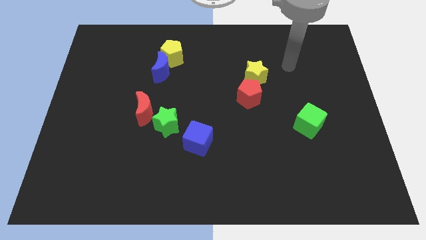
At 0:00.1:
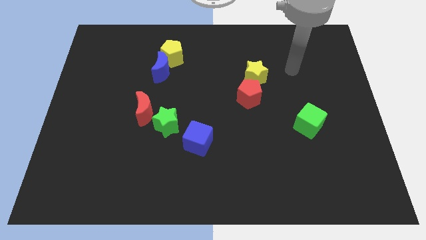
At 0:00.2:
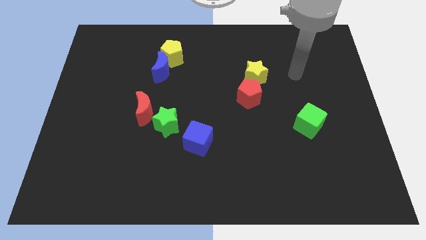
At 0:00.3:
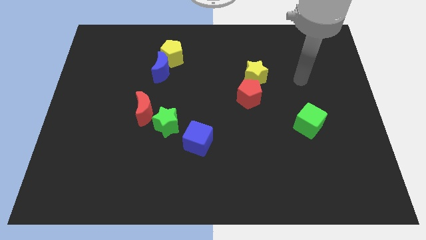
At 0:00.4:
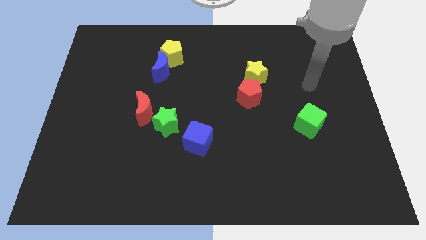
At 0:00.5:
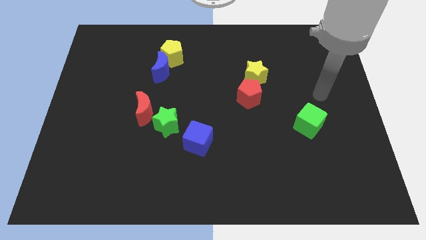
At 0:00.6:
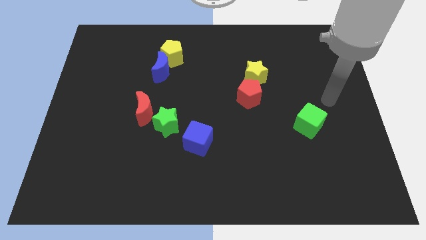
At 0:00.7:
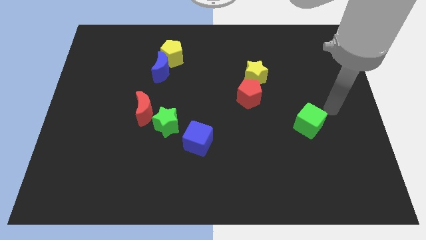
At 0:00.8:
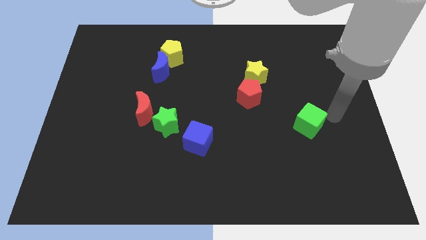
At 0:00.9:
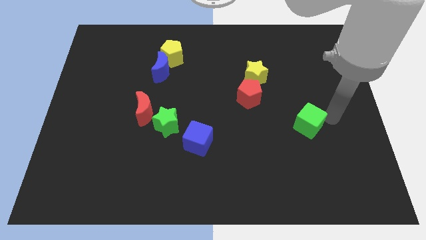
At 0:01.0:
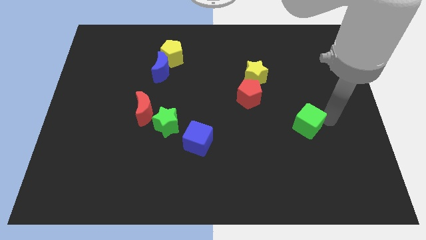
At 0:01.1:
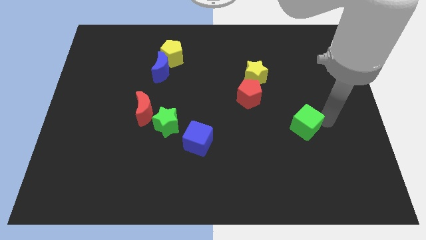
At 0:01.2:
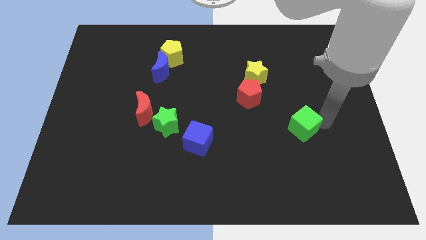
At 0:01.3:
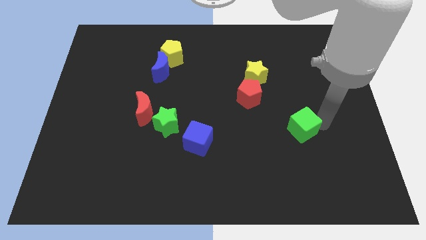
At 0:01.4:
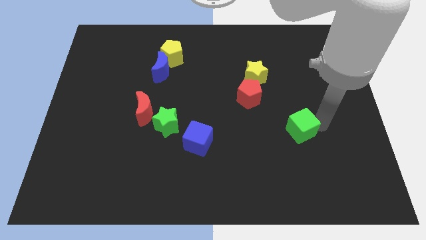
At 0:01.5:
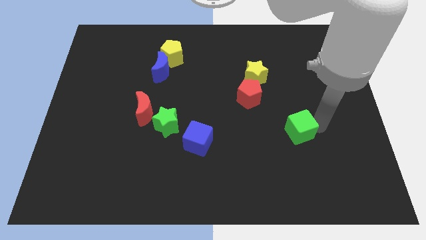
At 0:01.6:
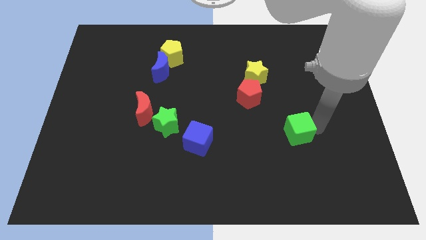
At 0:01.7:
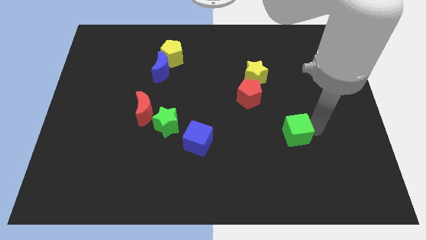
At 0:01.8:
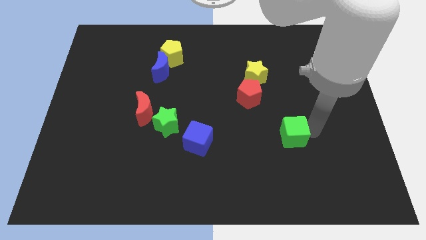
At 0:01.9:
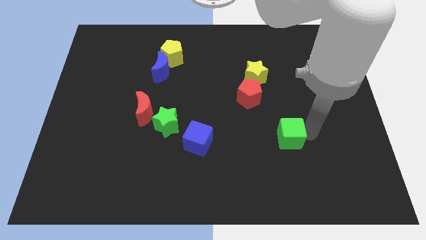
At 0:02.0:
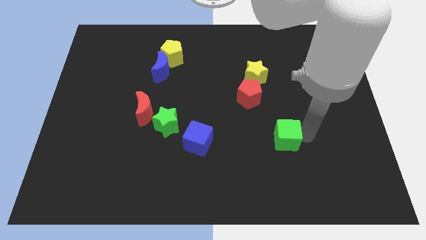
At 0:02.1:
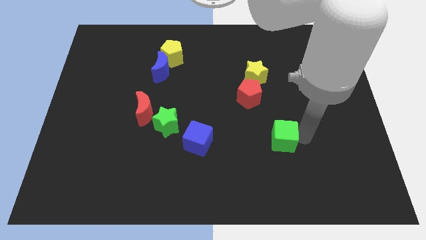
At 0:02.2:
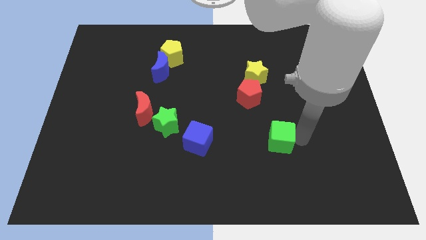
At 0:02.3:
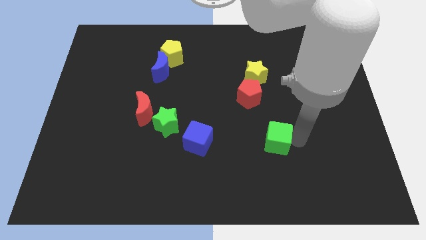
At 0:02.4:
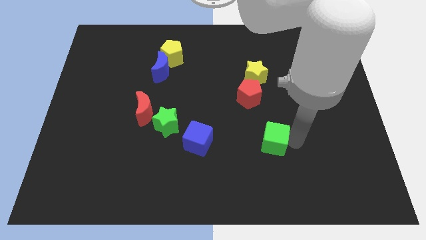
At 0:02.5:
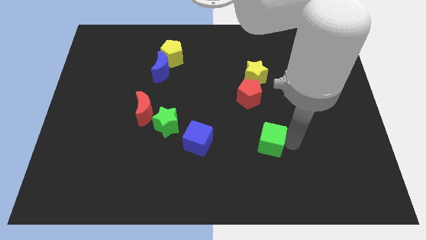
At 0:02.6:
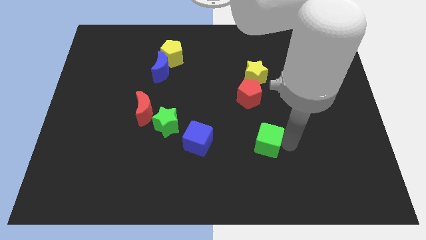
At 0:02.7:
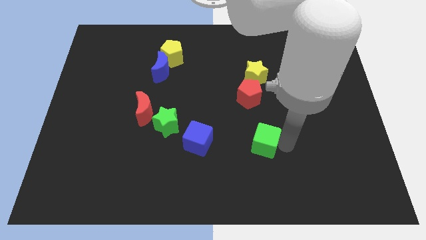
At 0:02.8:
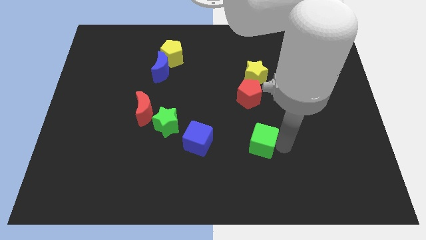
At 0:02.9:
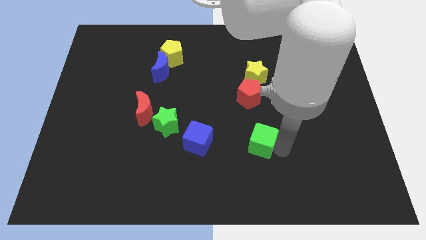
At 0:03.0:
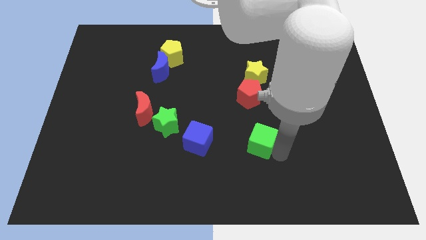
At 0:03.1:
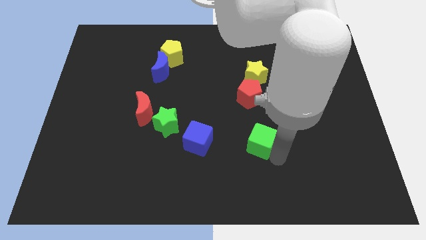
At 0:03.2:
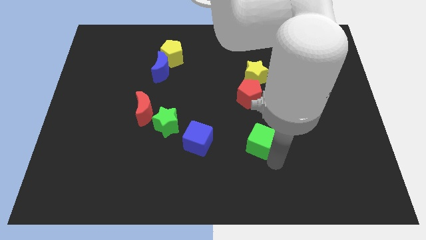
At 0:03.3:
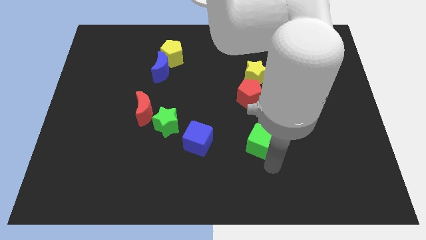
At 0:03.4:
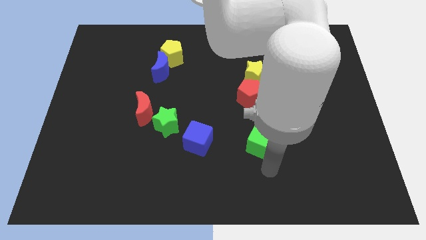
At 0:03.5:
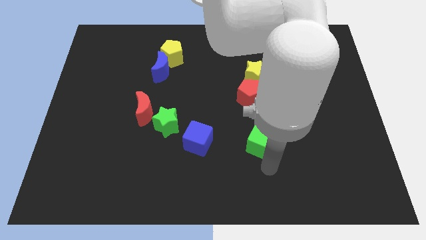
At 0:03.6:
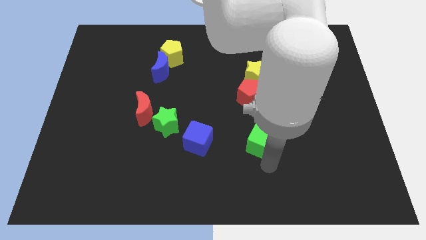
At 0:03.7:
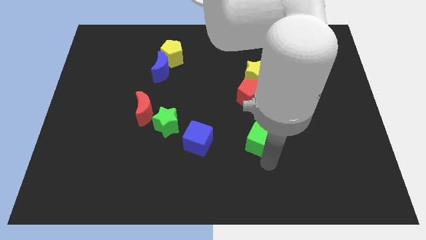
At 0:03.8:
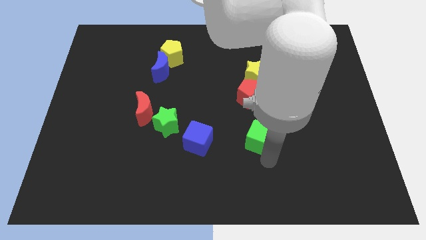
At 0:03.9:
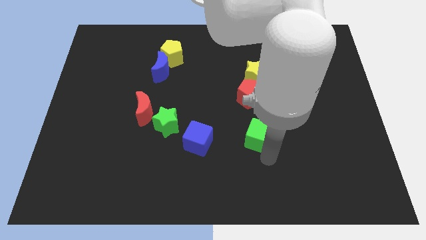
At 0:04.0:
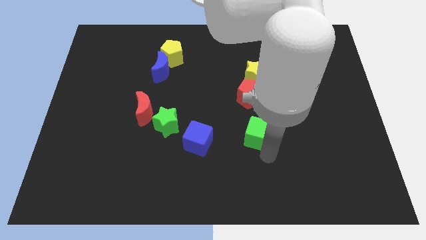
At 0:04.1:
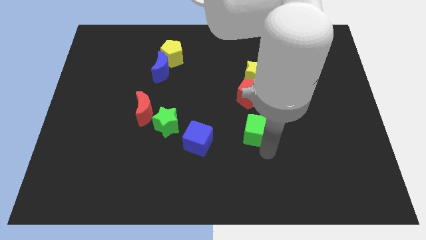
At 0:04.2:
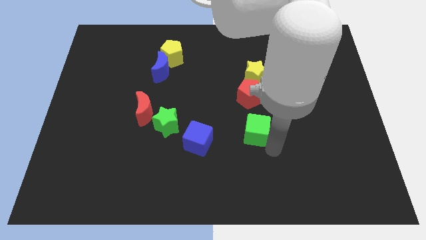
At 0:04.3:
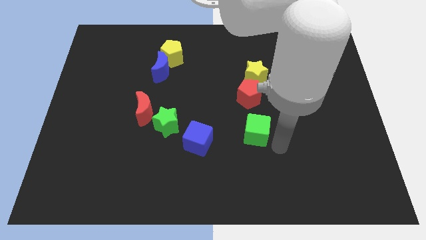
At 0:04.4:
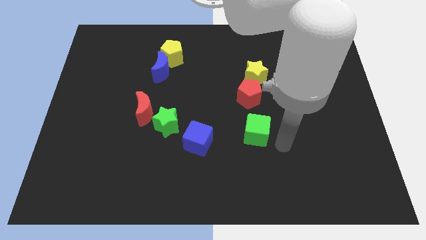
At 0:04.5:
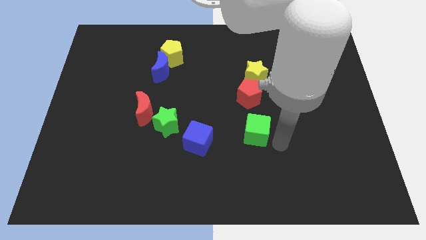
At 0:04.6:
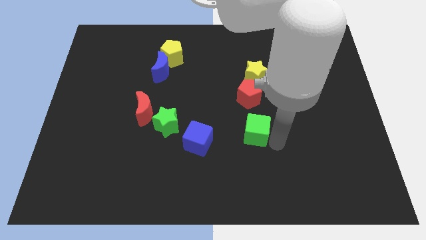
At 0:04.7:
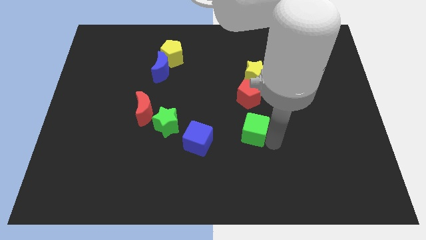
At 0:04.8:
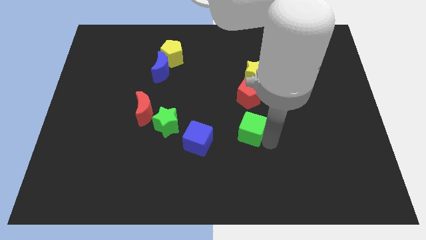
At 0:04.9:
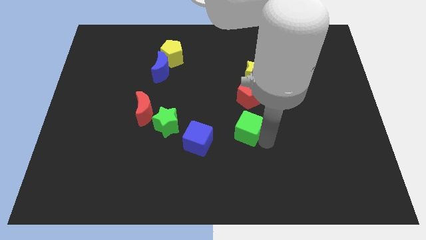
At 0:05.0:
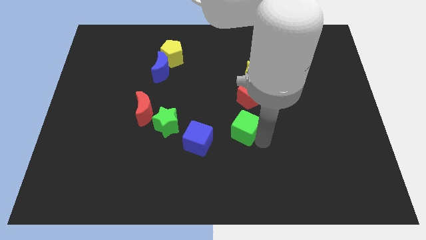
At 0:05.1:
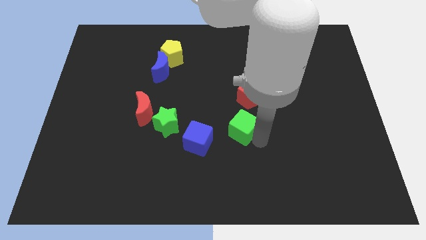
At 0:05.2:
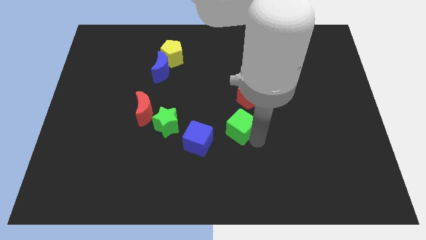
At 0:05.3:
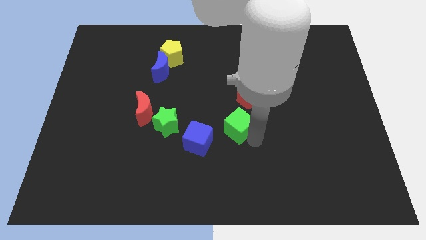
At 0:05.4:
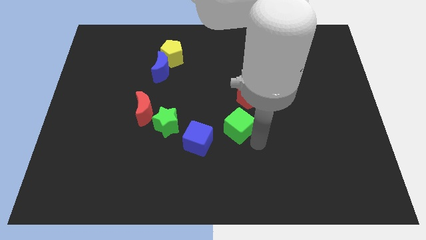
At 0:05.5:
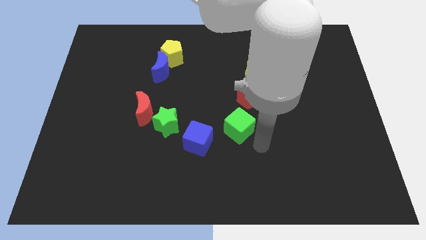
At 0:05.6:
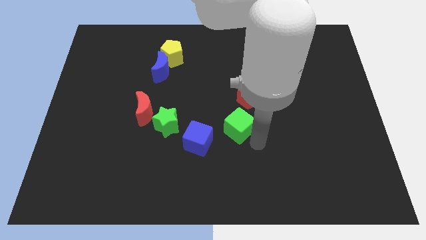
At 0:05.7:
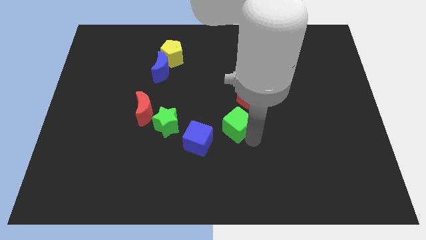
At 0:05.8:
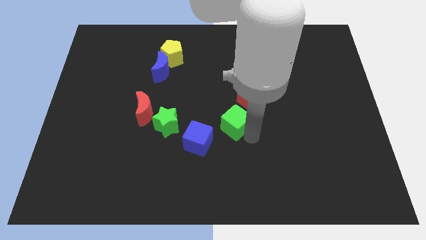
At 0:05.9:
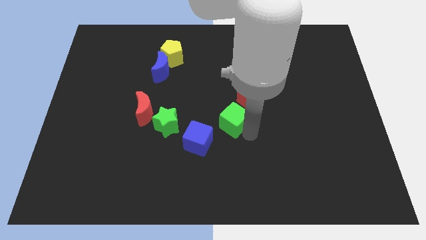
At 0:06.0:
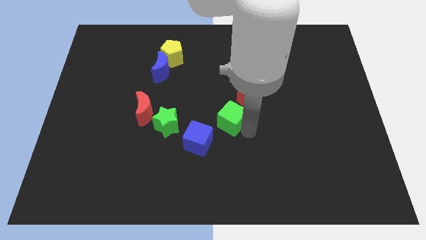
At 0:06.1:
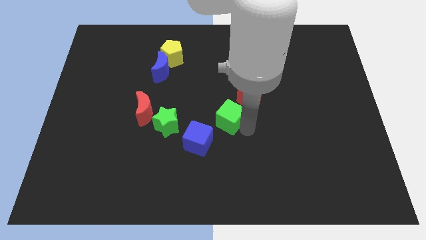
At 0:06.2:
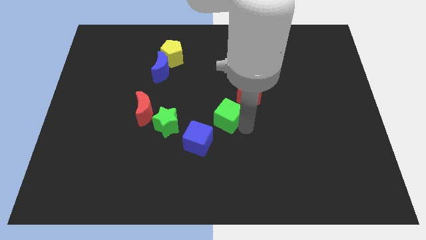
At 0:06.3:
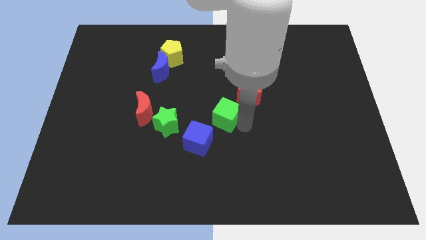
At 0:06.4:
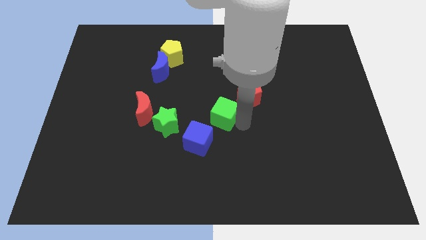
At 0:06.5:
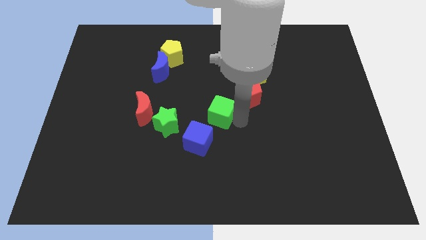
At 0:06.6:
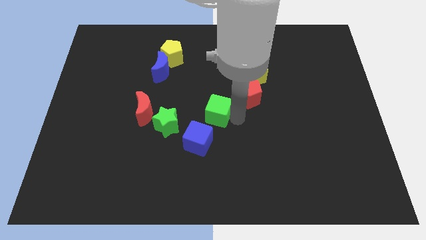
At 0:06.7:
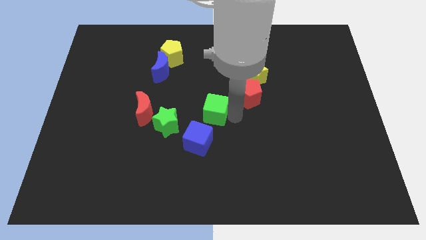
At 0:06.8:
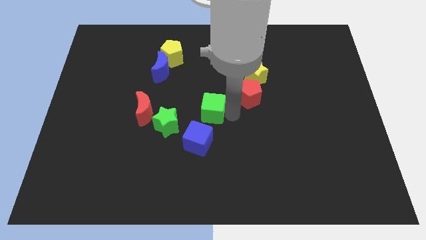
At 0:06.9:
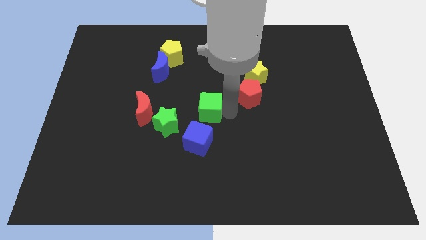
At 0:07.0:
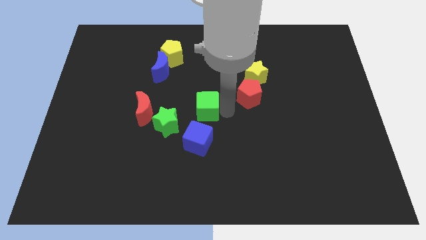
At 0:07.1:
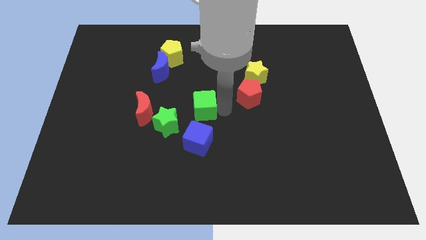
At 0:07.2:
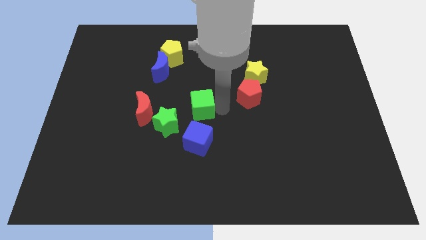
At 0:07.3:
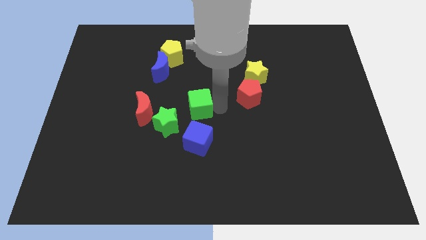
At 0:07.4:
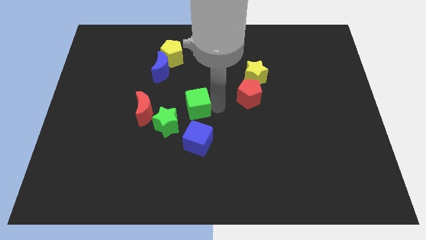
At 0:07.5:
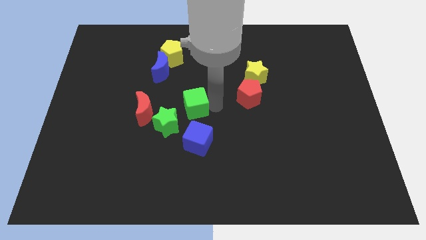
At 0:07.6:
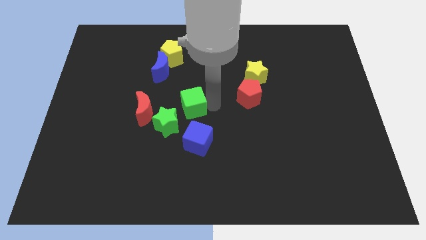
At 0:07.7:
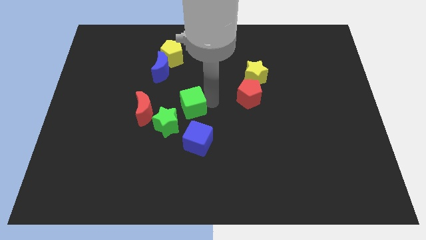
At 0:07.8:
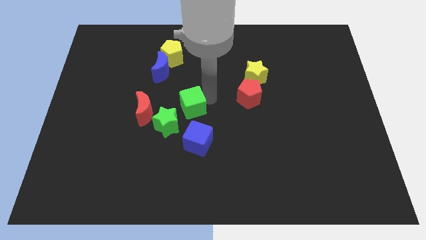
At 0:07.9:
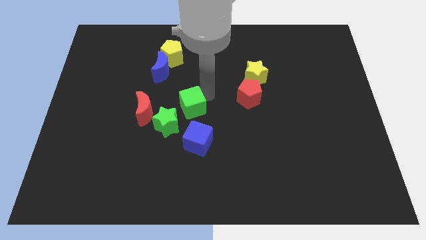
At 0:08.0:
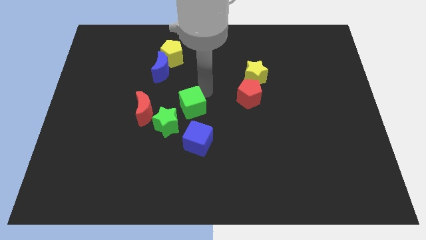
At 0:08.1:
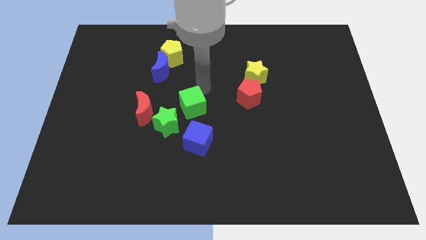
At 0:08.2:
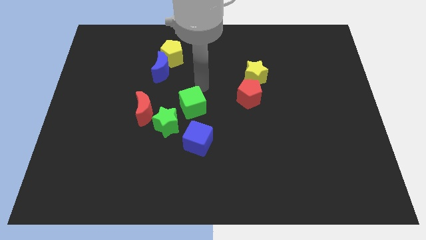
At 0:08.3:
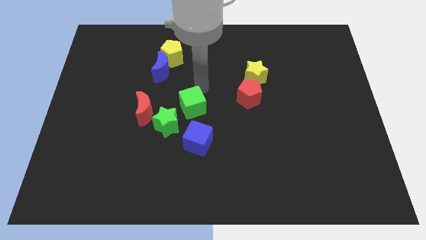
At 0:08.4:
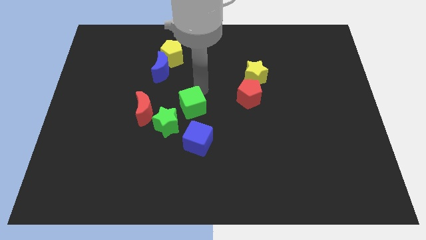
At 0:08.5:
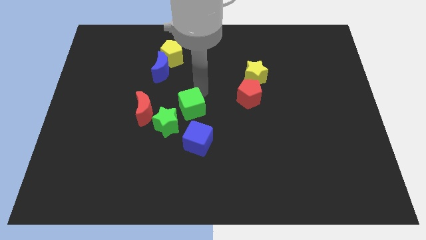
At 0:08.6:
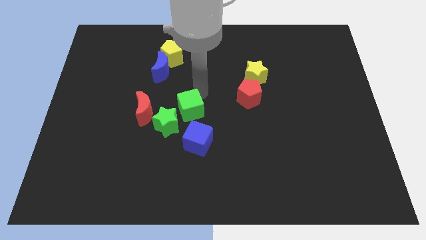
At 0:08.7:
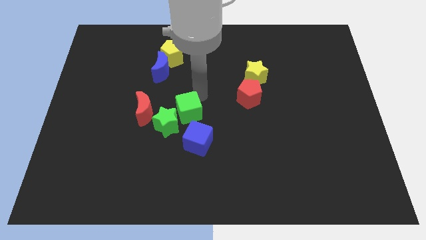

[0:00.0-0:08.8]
put the green cube to the green star
